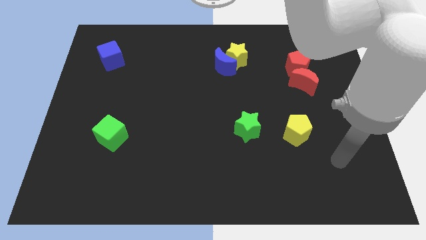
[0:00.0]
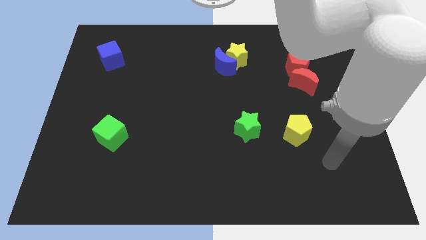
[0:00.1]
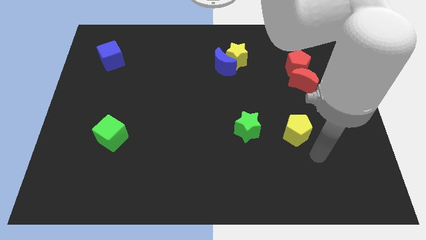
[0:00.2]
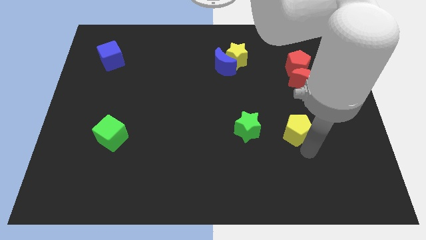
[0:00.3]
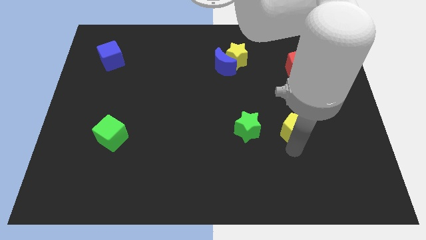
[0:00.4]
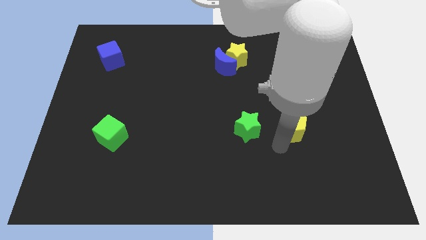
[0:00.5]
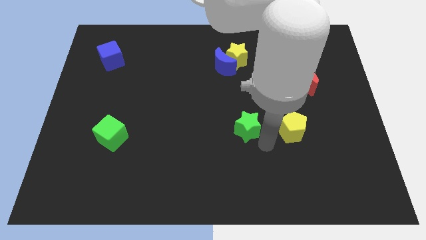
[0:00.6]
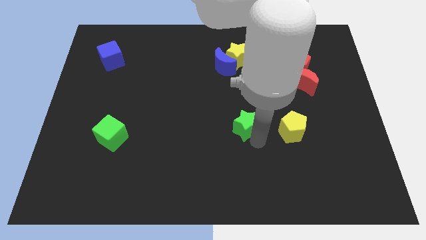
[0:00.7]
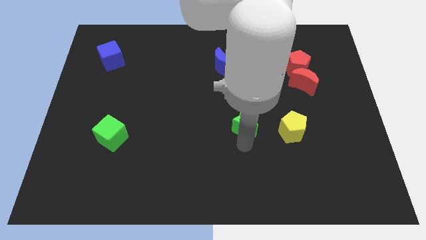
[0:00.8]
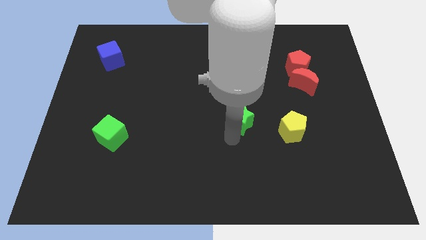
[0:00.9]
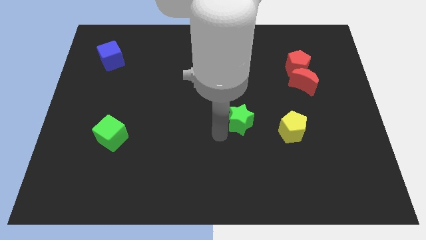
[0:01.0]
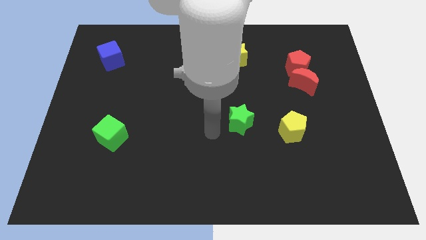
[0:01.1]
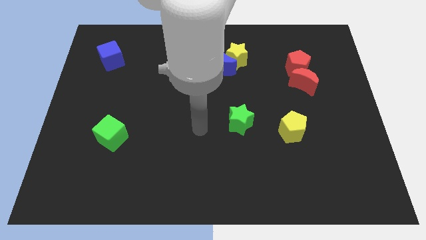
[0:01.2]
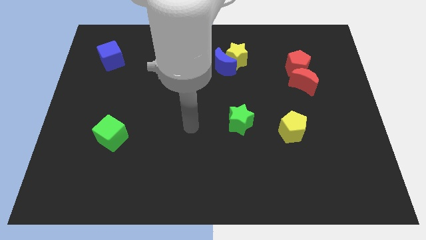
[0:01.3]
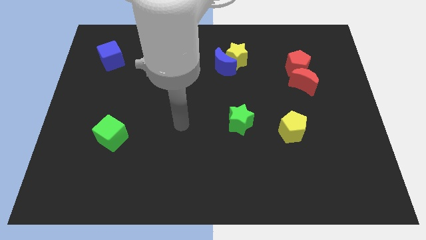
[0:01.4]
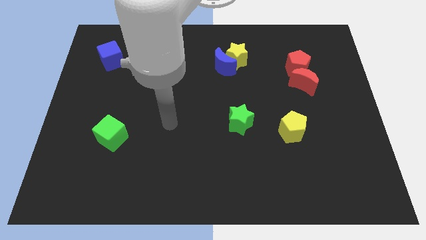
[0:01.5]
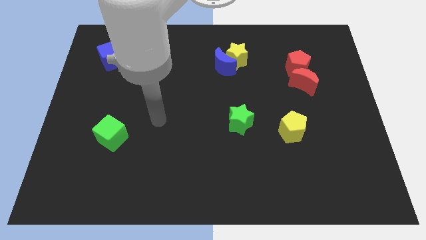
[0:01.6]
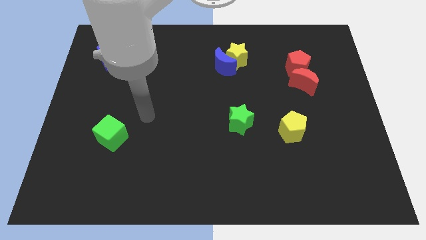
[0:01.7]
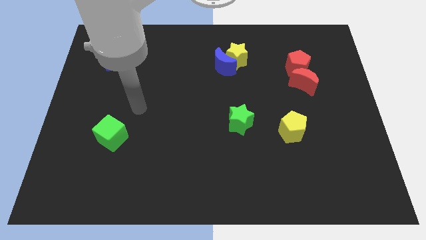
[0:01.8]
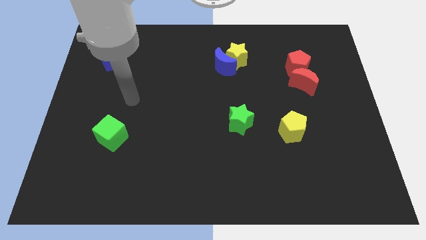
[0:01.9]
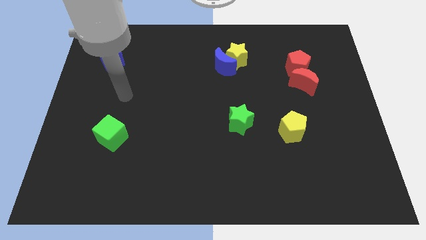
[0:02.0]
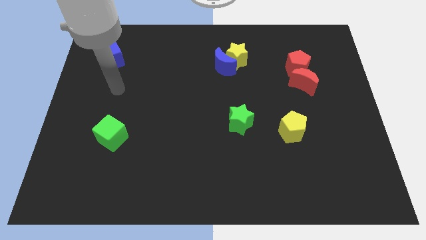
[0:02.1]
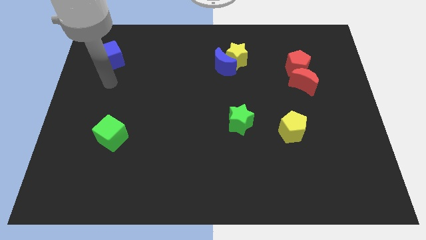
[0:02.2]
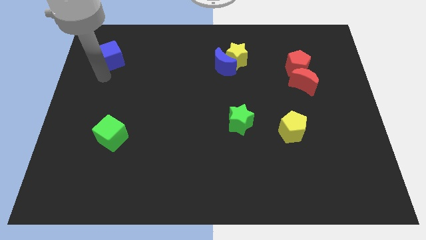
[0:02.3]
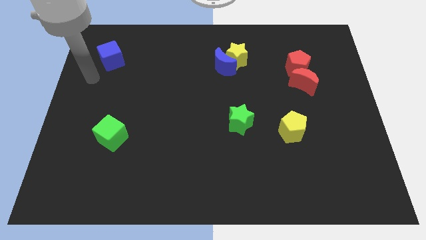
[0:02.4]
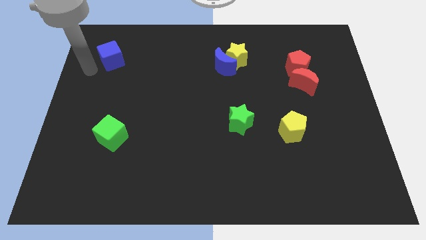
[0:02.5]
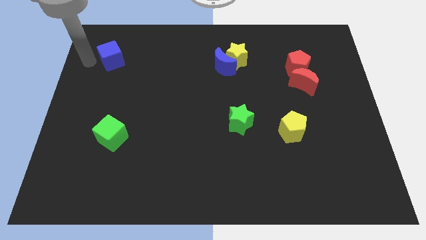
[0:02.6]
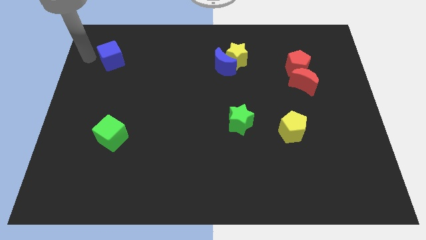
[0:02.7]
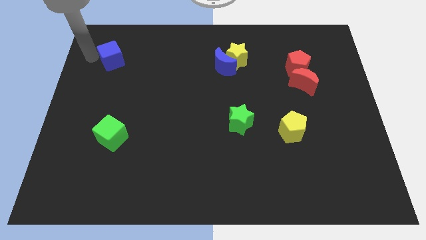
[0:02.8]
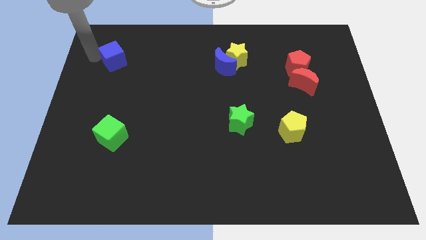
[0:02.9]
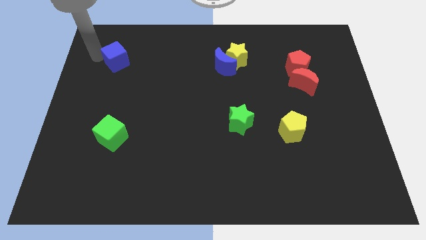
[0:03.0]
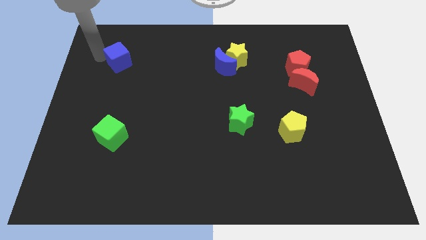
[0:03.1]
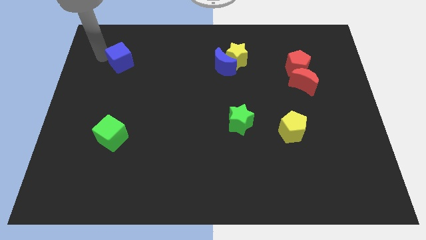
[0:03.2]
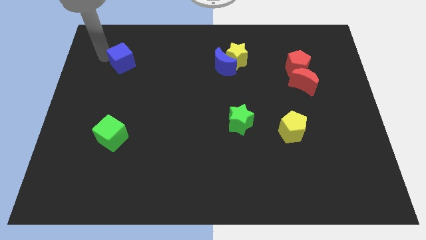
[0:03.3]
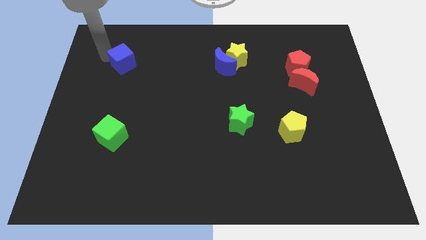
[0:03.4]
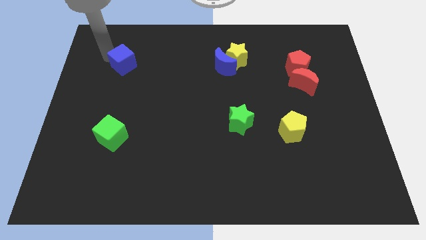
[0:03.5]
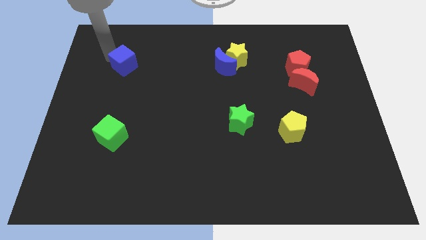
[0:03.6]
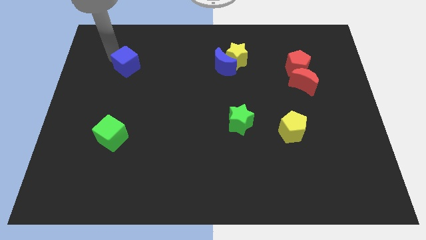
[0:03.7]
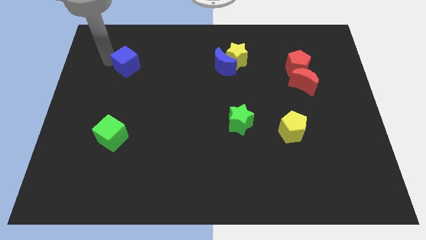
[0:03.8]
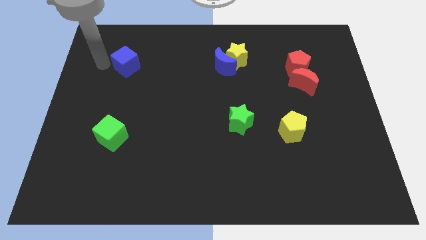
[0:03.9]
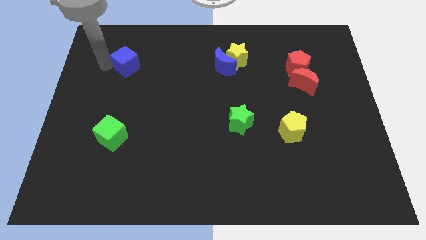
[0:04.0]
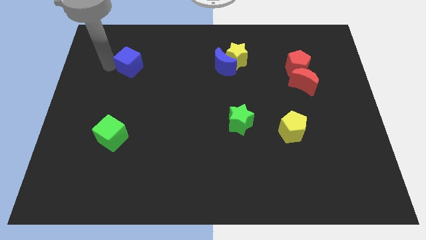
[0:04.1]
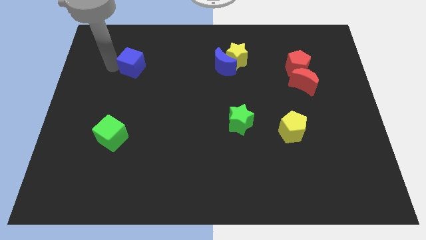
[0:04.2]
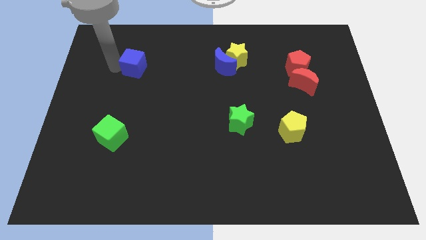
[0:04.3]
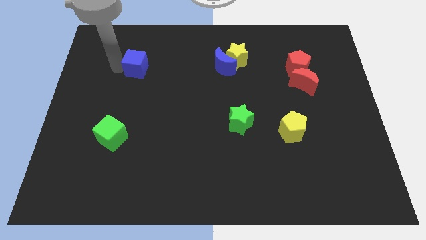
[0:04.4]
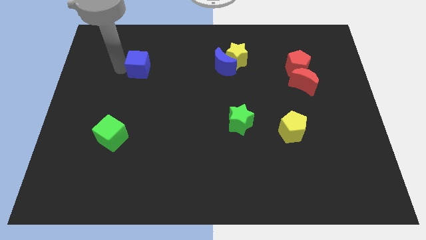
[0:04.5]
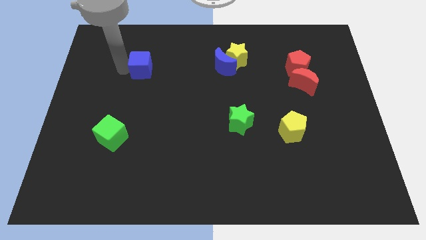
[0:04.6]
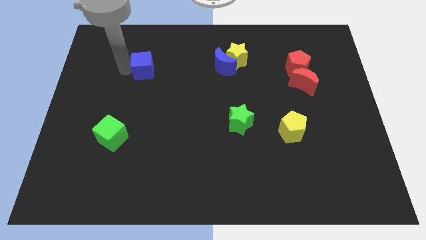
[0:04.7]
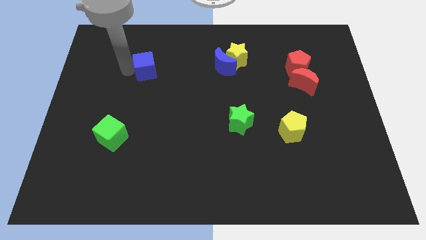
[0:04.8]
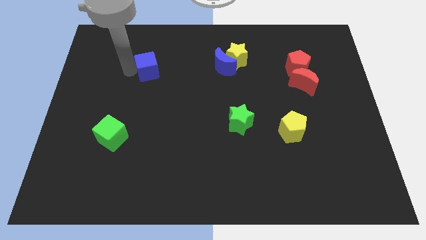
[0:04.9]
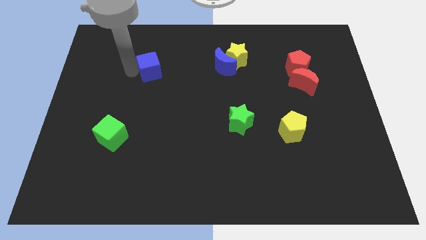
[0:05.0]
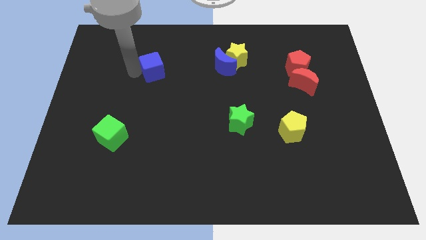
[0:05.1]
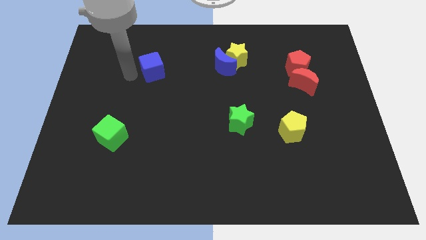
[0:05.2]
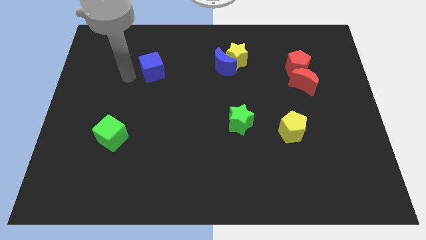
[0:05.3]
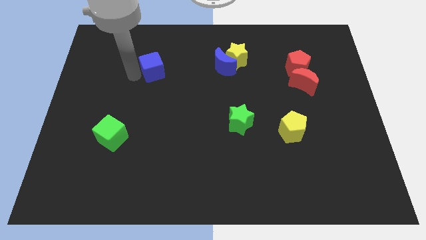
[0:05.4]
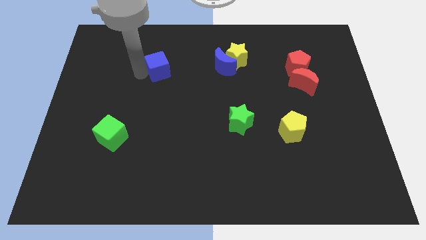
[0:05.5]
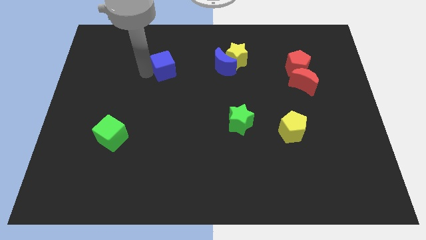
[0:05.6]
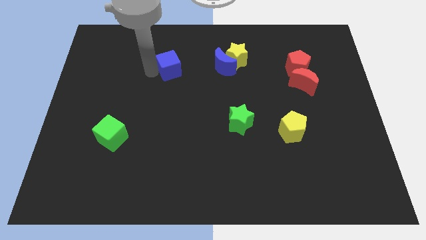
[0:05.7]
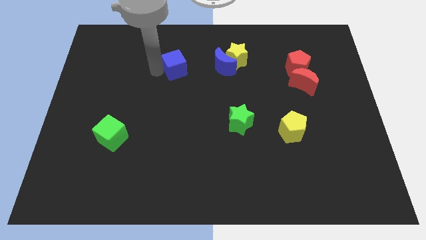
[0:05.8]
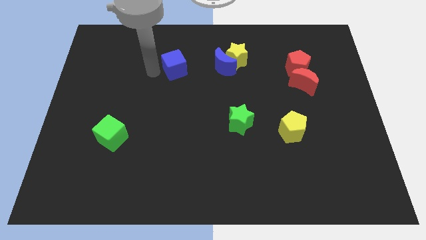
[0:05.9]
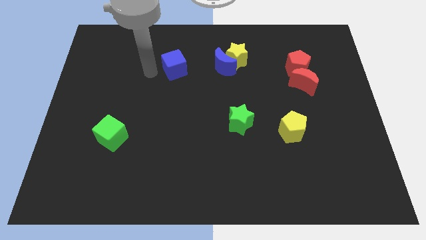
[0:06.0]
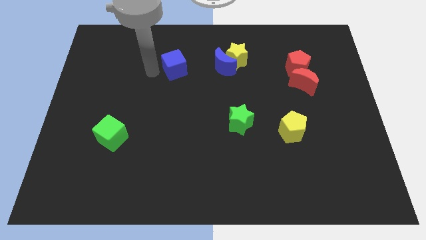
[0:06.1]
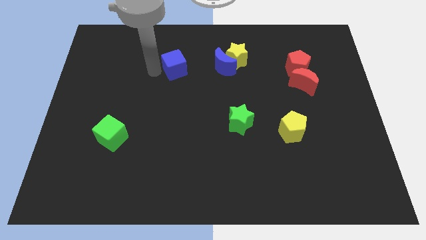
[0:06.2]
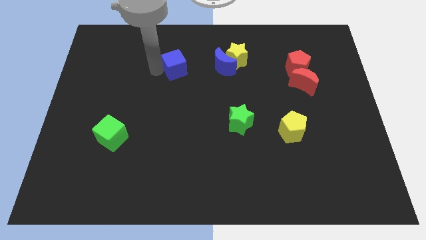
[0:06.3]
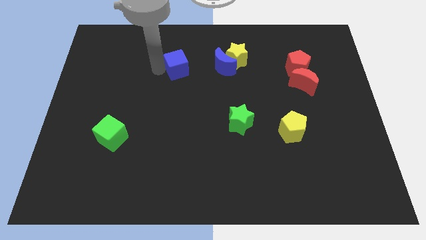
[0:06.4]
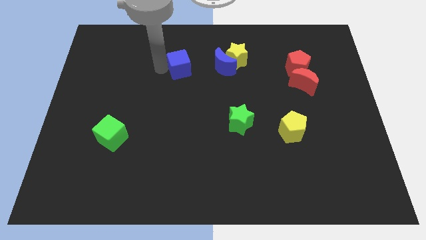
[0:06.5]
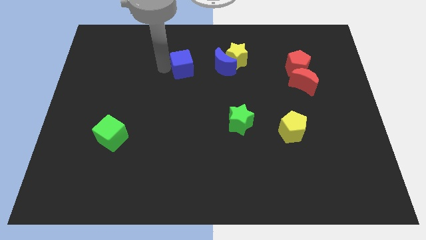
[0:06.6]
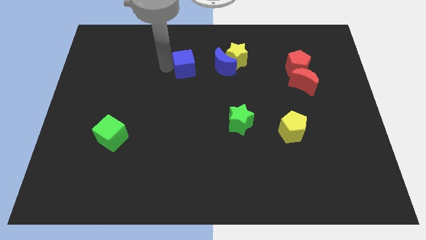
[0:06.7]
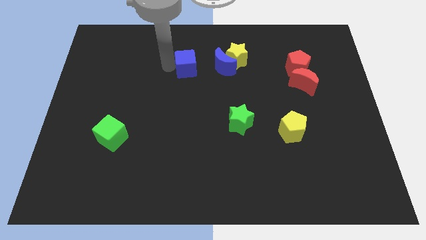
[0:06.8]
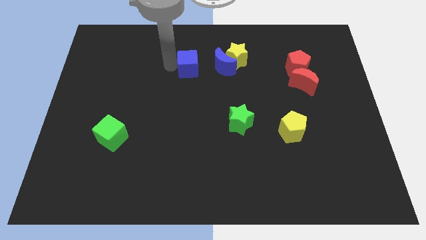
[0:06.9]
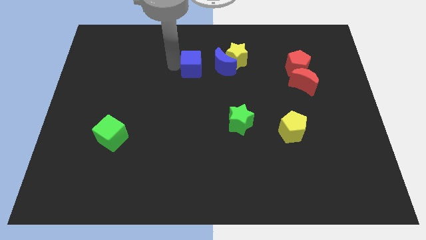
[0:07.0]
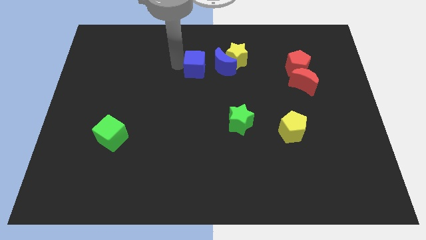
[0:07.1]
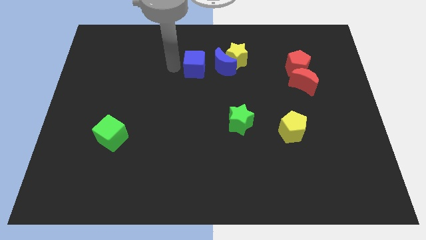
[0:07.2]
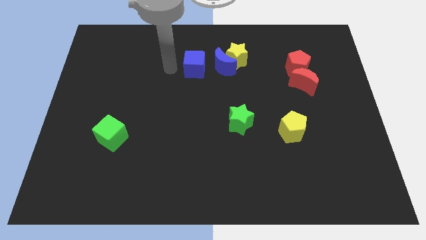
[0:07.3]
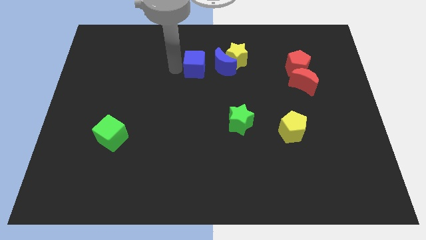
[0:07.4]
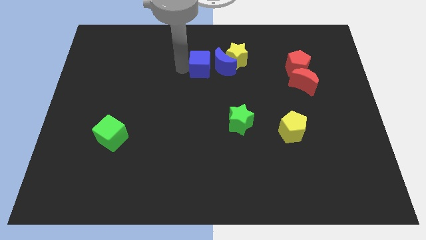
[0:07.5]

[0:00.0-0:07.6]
slide the blue cube towards the blue moon
